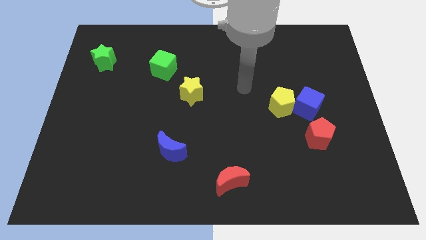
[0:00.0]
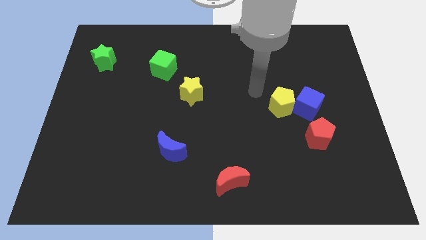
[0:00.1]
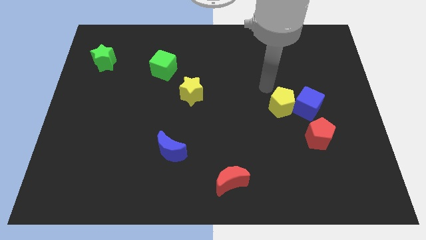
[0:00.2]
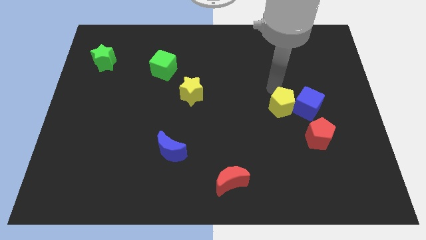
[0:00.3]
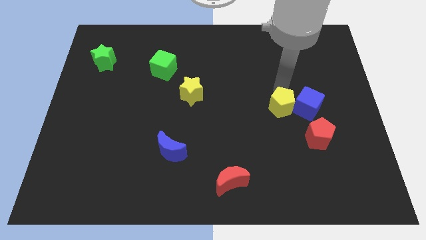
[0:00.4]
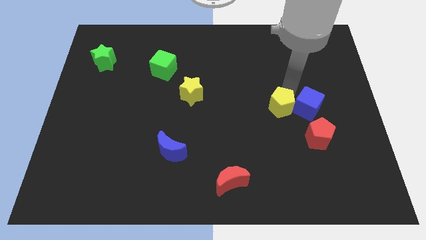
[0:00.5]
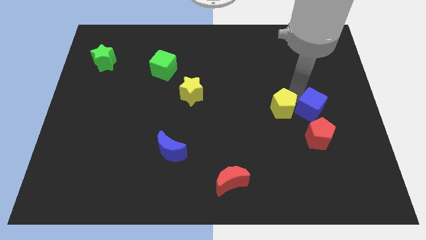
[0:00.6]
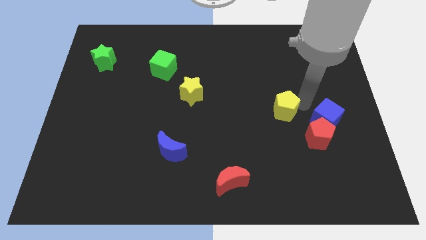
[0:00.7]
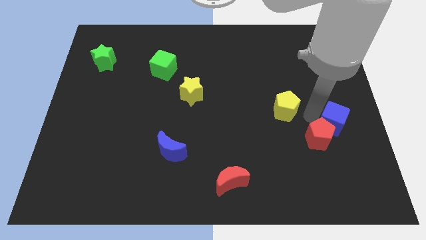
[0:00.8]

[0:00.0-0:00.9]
separate the yellow pentagon from the blue cube

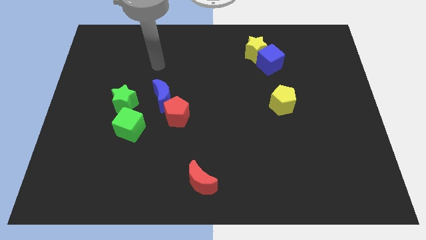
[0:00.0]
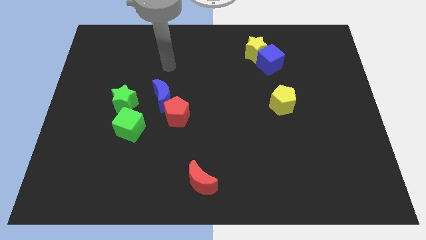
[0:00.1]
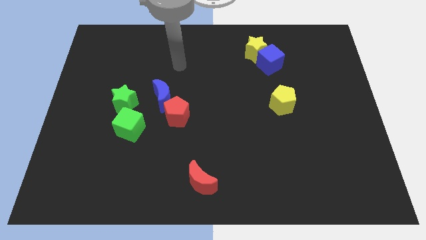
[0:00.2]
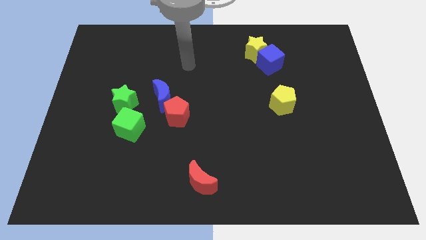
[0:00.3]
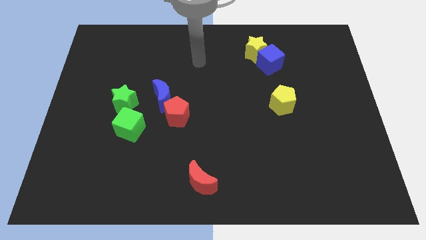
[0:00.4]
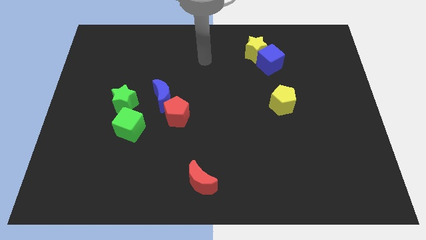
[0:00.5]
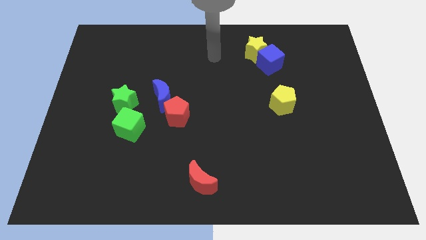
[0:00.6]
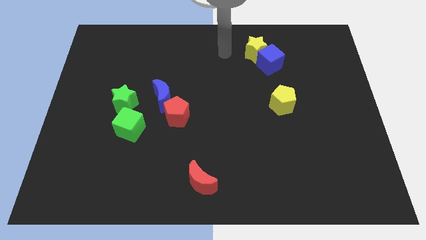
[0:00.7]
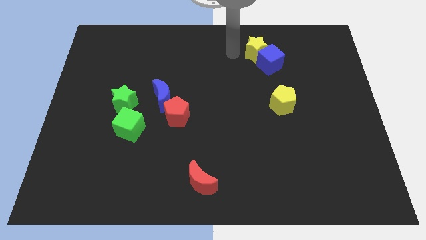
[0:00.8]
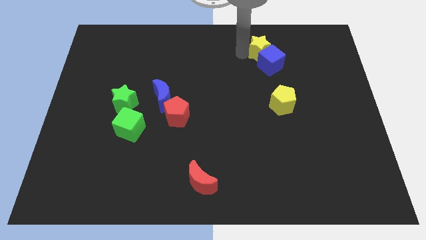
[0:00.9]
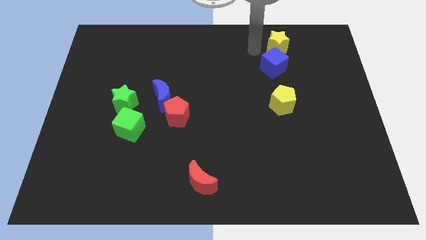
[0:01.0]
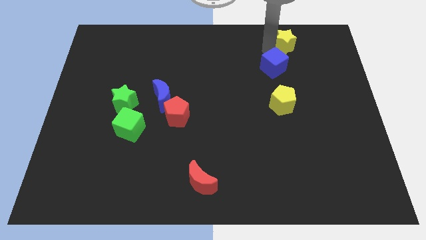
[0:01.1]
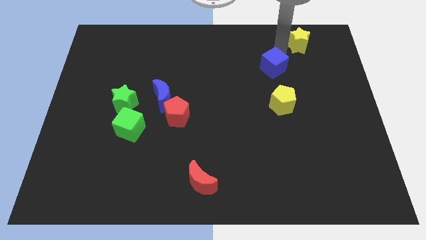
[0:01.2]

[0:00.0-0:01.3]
pull the blue cube apart from the yellow star

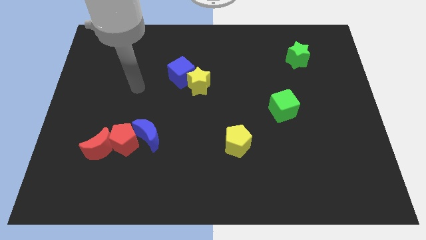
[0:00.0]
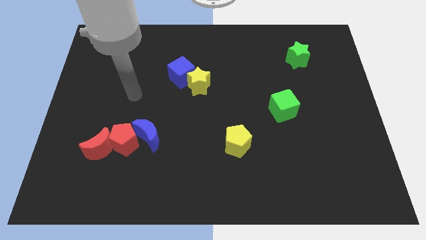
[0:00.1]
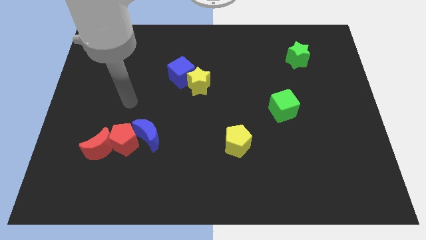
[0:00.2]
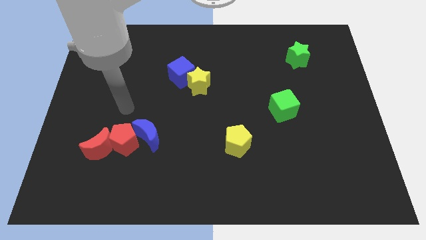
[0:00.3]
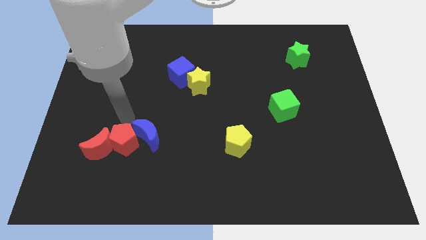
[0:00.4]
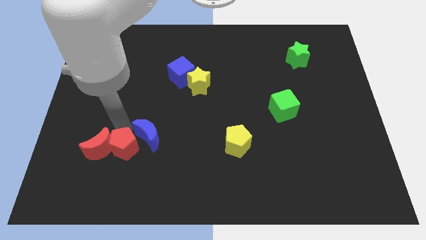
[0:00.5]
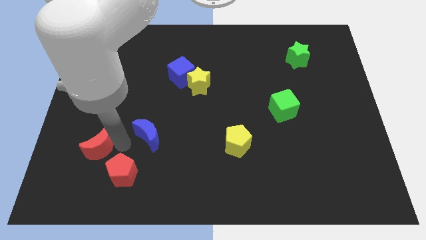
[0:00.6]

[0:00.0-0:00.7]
move the blue moon away from the red pentagon

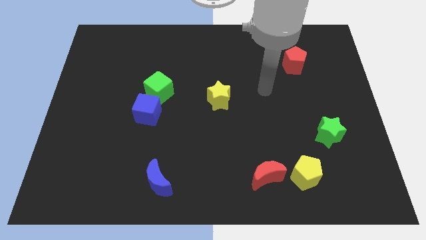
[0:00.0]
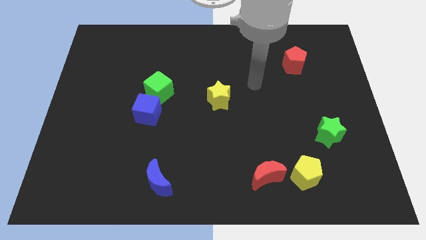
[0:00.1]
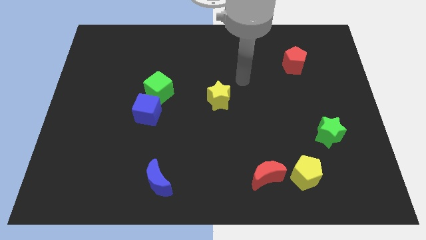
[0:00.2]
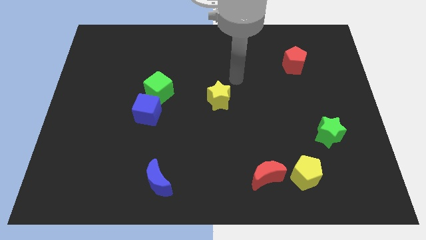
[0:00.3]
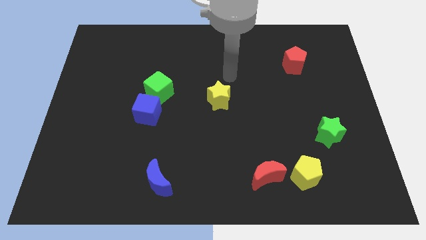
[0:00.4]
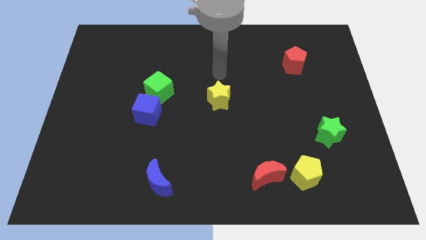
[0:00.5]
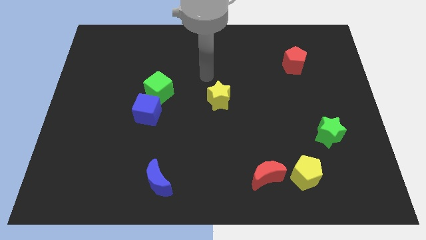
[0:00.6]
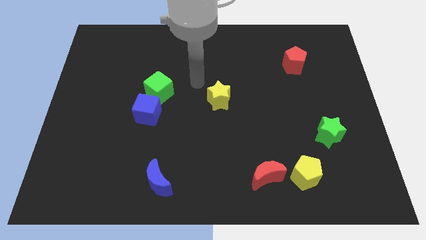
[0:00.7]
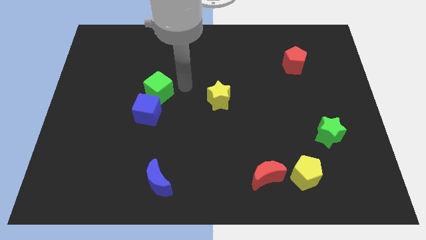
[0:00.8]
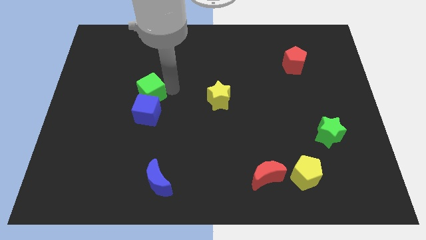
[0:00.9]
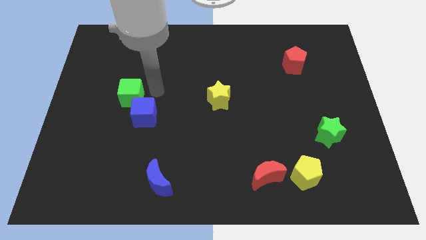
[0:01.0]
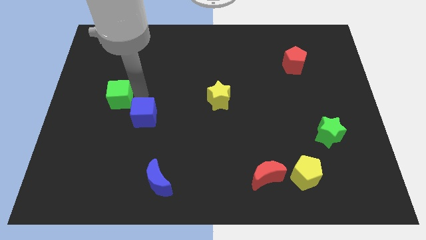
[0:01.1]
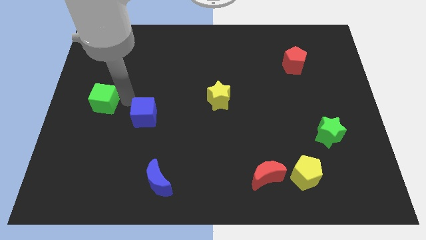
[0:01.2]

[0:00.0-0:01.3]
separate the blue cube from the green cube

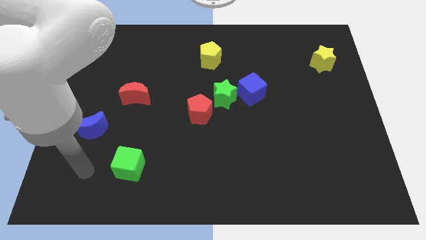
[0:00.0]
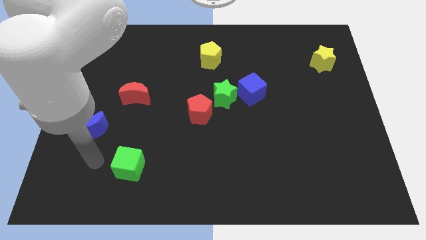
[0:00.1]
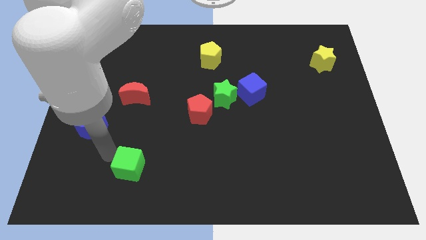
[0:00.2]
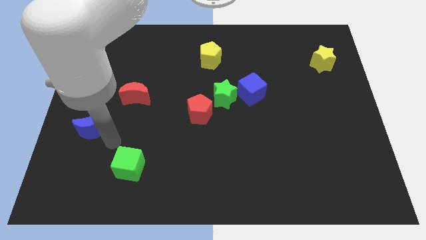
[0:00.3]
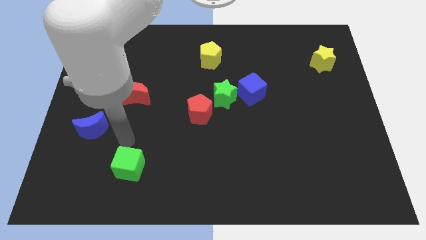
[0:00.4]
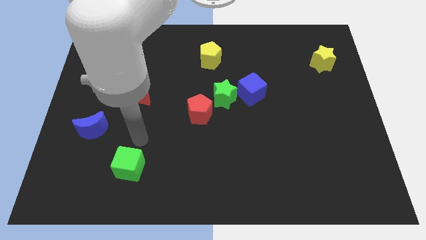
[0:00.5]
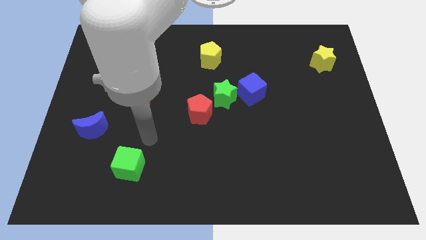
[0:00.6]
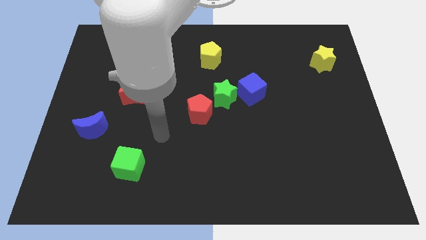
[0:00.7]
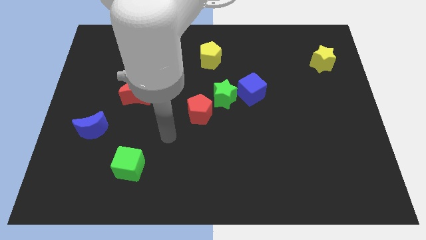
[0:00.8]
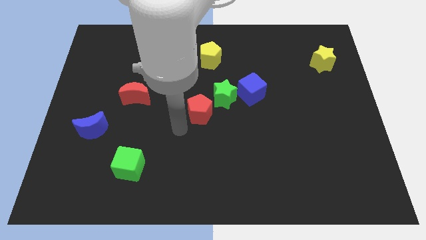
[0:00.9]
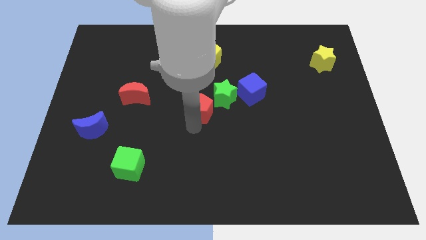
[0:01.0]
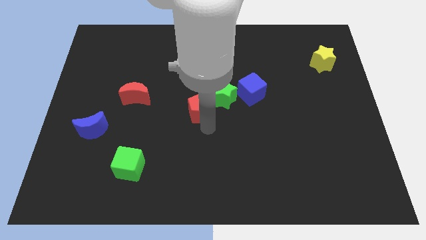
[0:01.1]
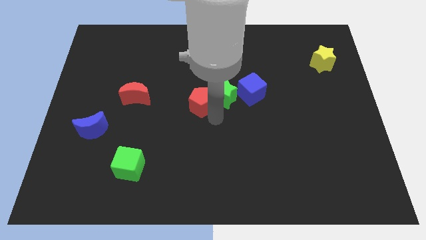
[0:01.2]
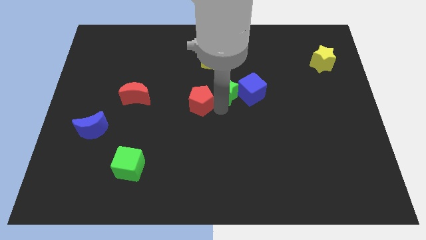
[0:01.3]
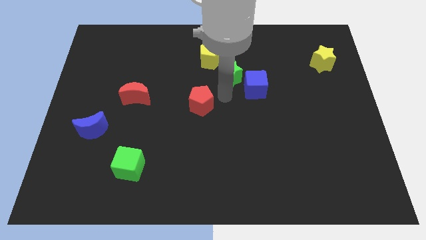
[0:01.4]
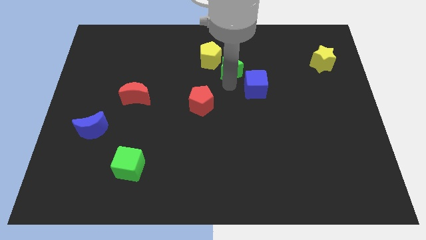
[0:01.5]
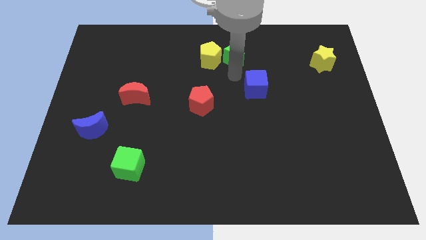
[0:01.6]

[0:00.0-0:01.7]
separate the blue cube from the green star

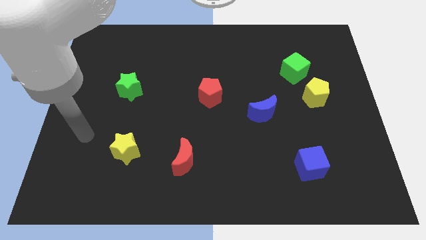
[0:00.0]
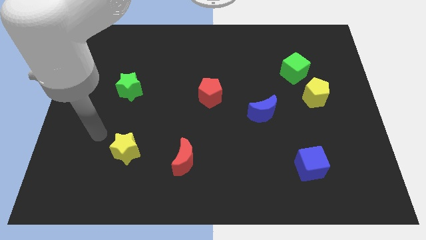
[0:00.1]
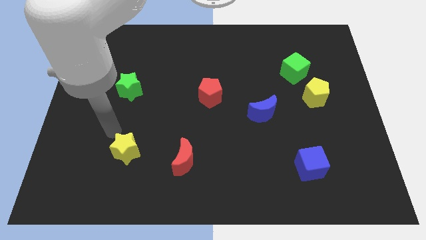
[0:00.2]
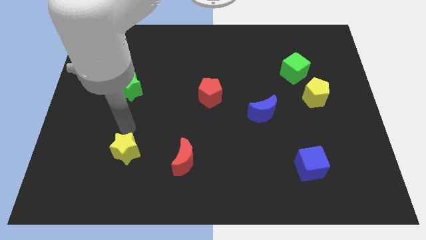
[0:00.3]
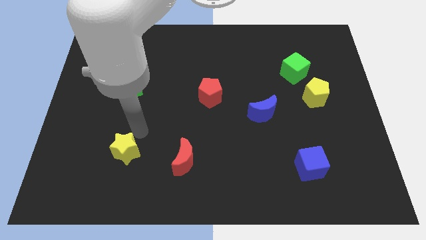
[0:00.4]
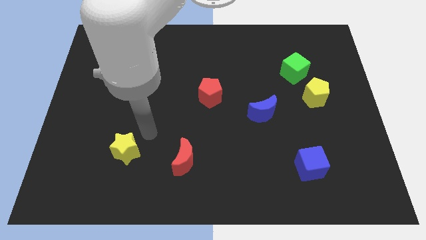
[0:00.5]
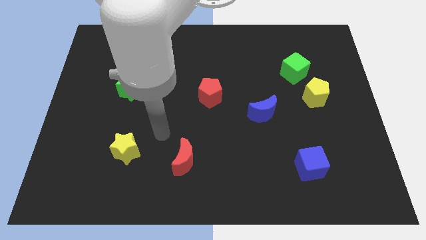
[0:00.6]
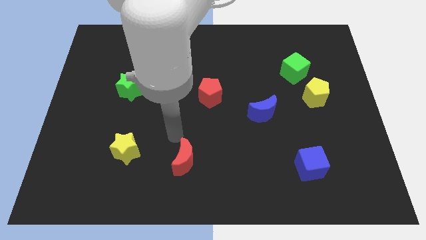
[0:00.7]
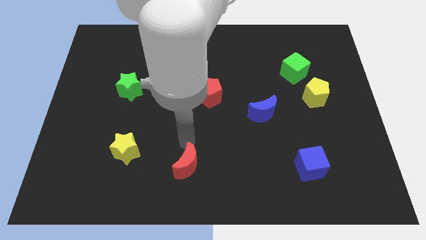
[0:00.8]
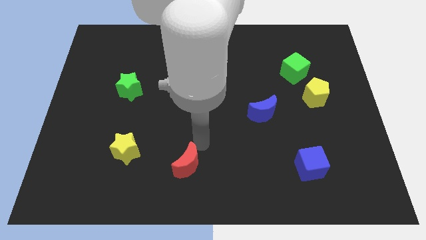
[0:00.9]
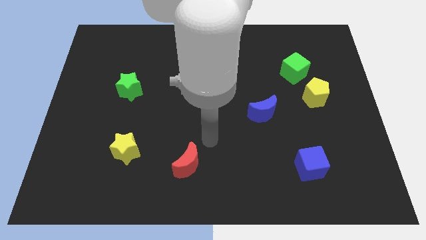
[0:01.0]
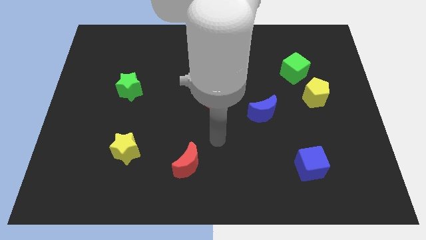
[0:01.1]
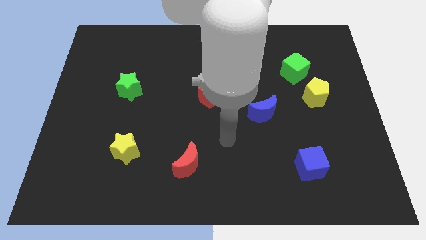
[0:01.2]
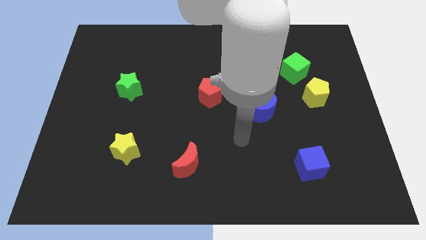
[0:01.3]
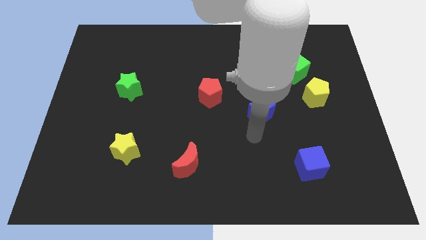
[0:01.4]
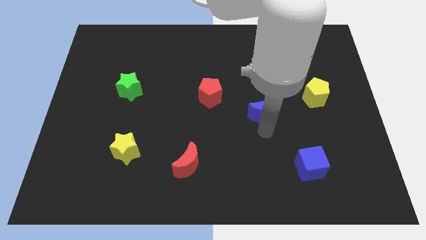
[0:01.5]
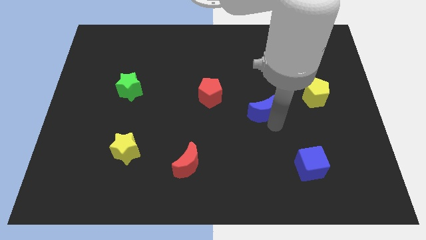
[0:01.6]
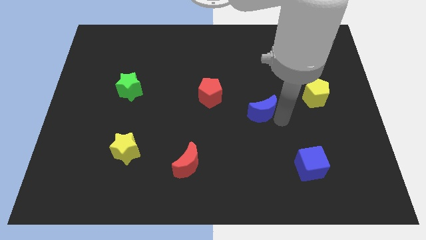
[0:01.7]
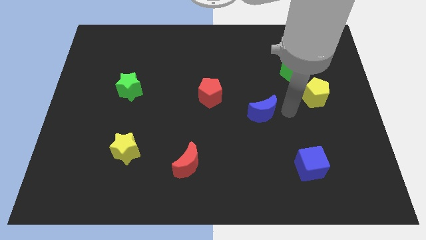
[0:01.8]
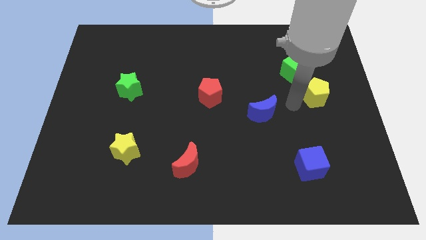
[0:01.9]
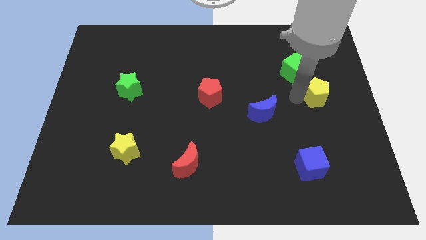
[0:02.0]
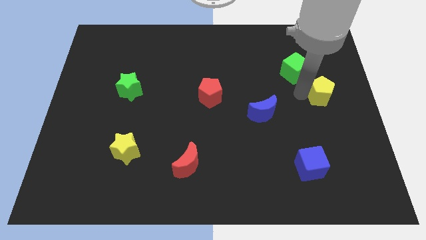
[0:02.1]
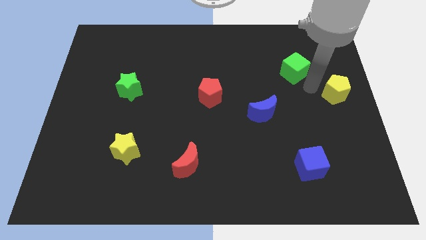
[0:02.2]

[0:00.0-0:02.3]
move the green cube away from the yellow pentagon

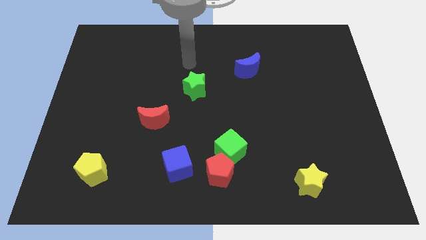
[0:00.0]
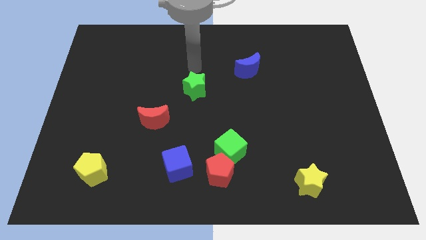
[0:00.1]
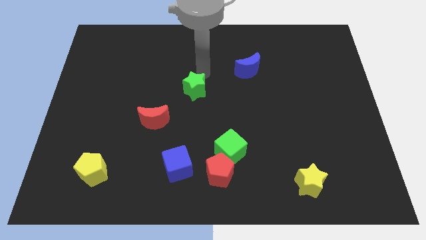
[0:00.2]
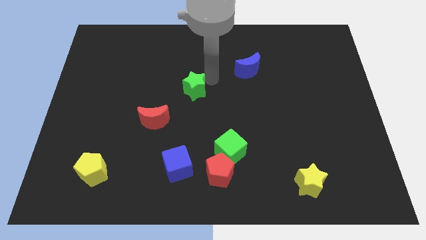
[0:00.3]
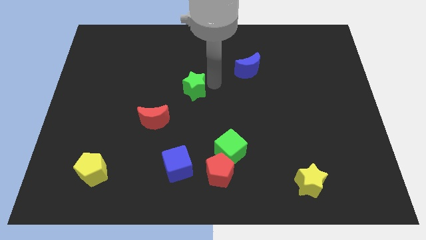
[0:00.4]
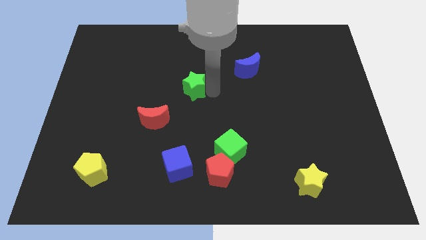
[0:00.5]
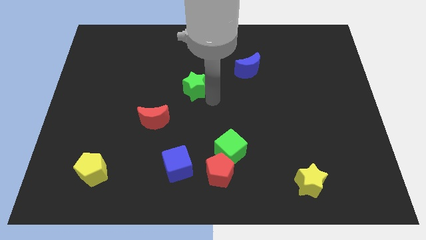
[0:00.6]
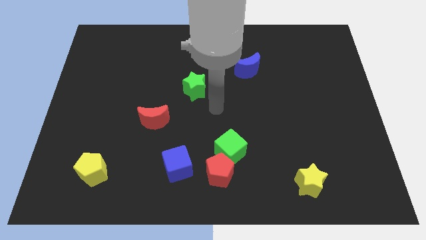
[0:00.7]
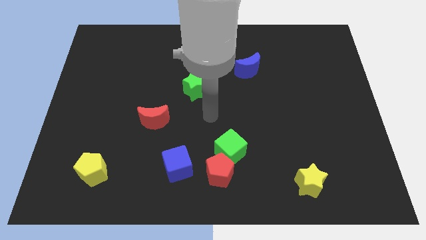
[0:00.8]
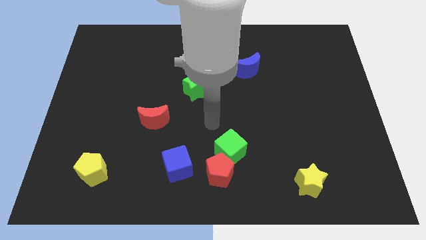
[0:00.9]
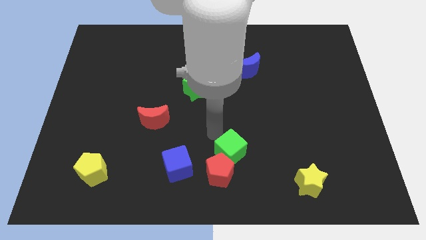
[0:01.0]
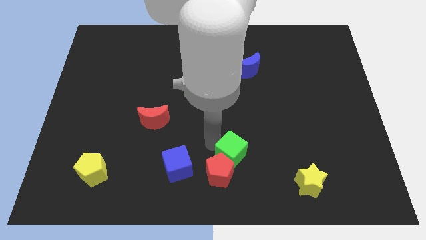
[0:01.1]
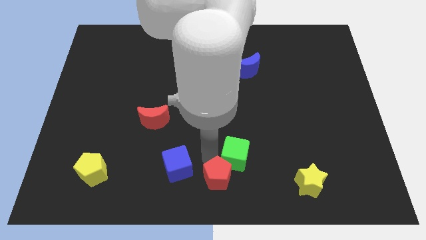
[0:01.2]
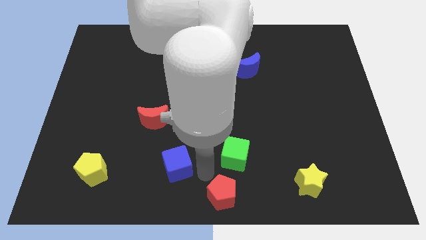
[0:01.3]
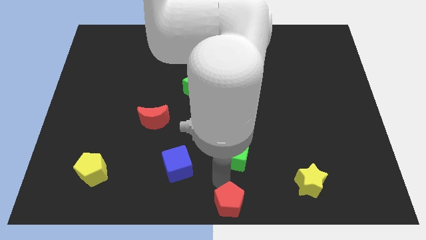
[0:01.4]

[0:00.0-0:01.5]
move the green cube away from the red pentagon
